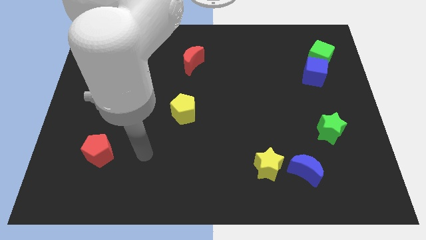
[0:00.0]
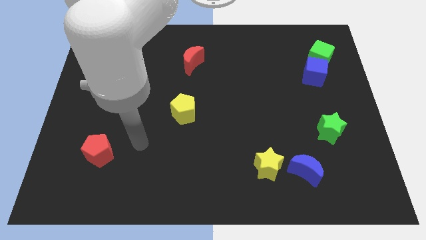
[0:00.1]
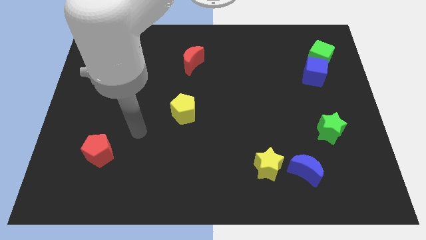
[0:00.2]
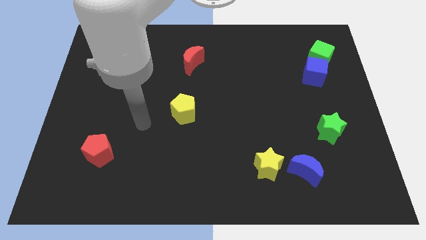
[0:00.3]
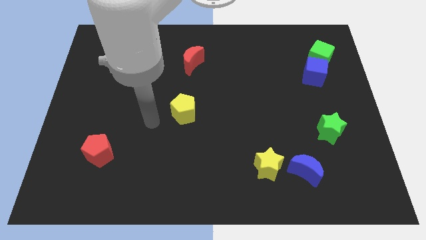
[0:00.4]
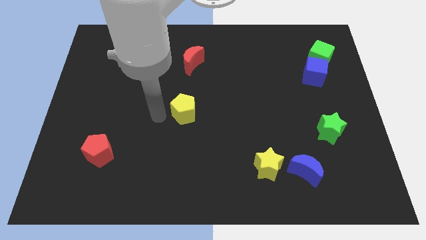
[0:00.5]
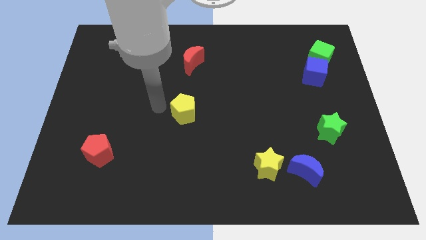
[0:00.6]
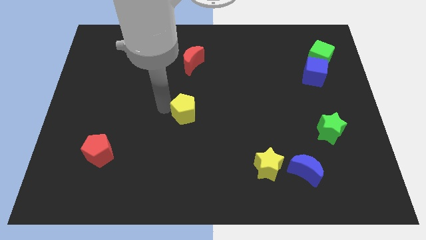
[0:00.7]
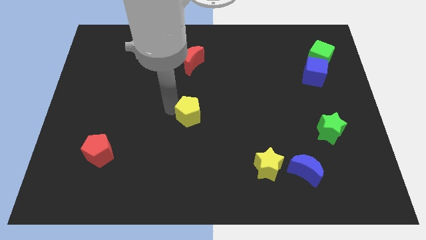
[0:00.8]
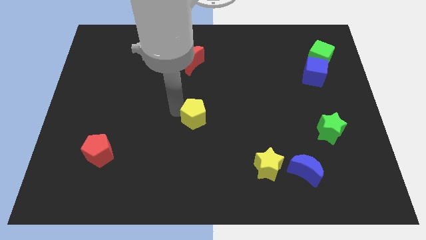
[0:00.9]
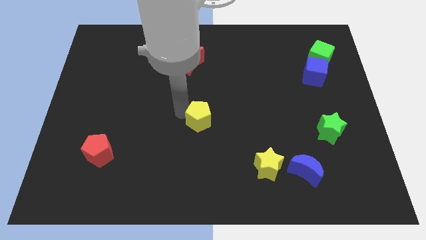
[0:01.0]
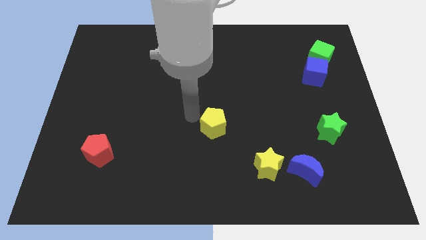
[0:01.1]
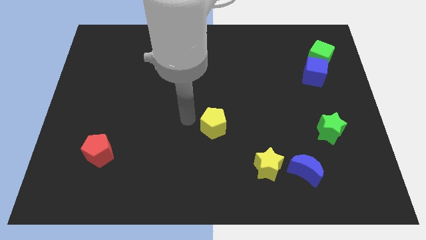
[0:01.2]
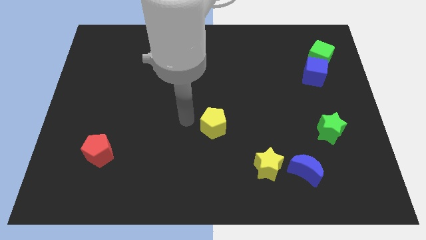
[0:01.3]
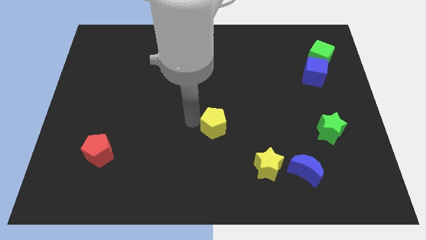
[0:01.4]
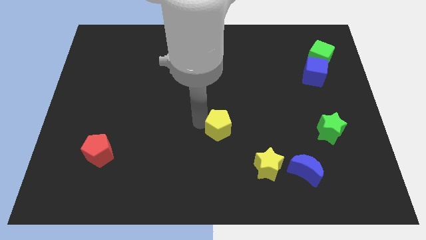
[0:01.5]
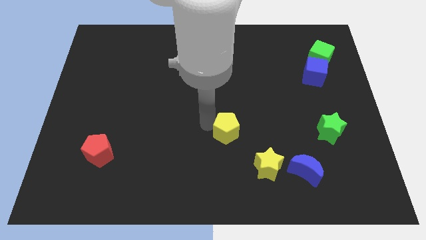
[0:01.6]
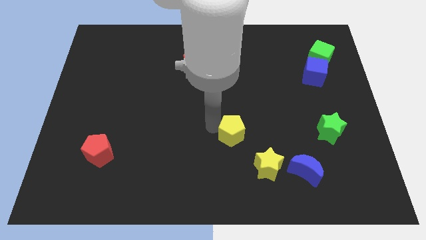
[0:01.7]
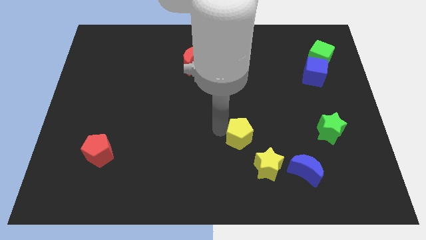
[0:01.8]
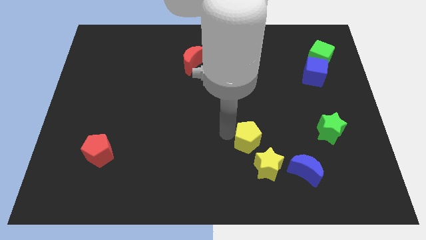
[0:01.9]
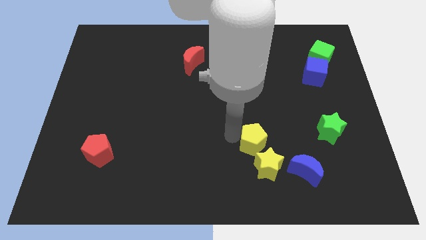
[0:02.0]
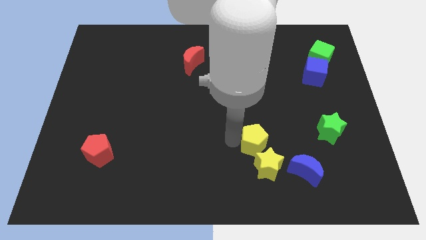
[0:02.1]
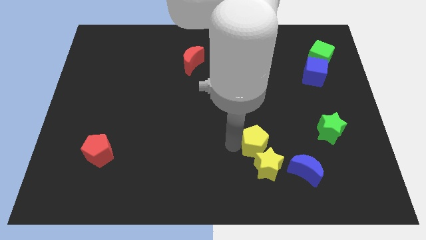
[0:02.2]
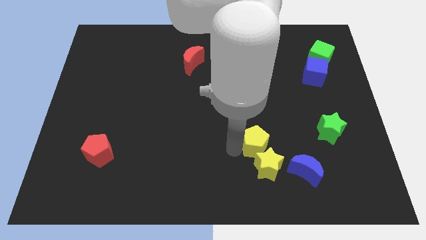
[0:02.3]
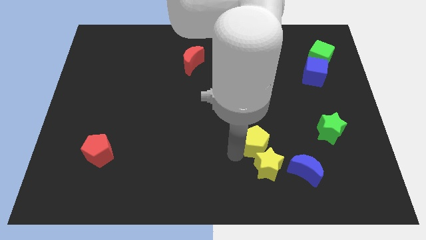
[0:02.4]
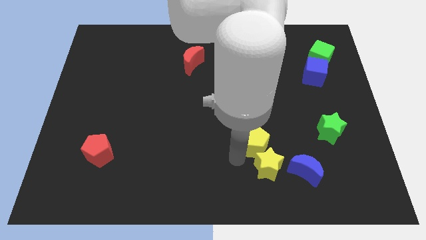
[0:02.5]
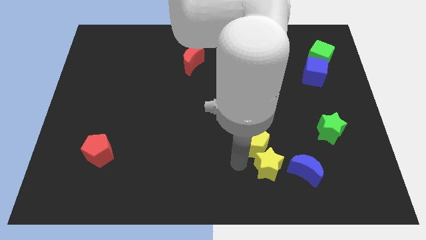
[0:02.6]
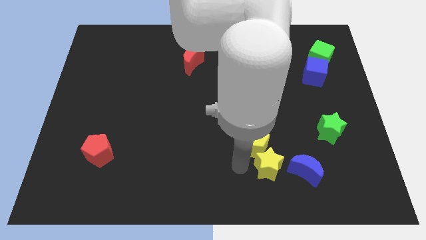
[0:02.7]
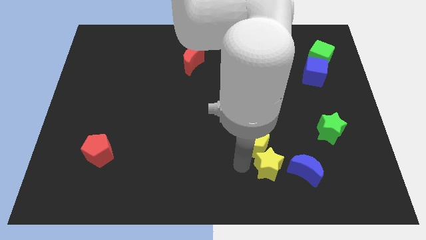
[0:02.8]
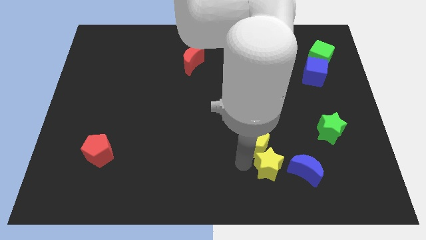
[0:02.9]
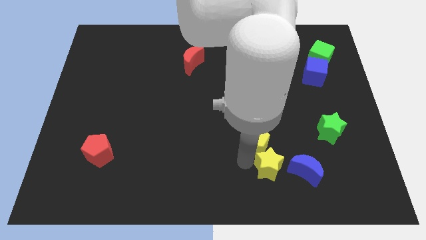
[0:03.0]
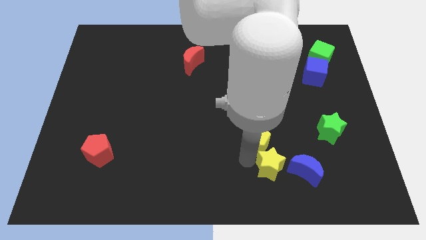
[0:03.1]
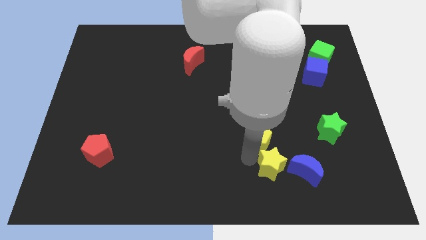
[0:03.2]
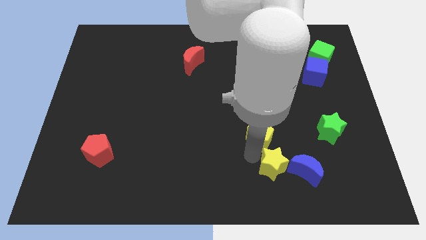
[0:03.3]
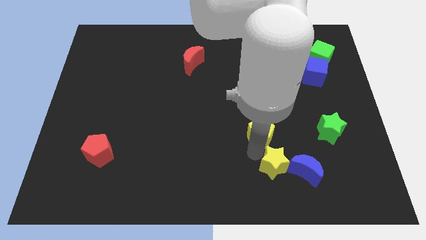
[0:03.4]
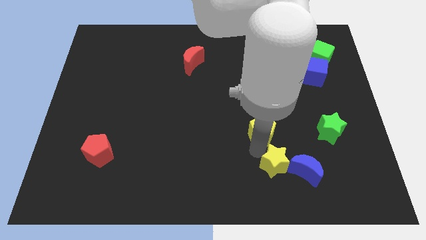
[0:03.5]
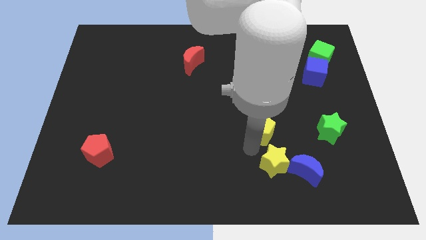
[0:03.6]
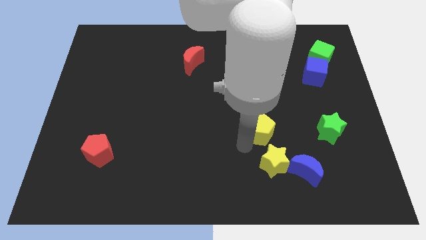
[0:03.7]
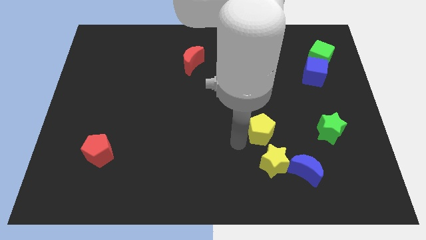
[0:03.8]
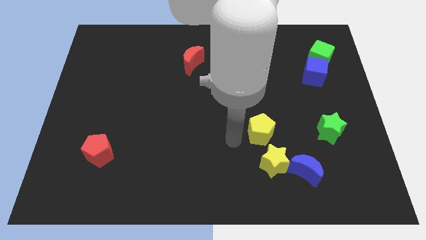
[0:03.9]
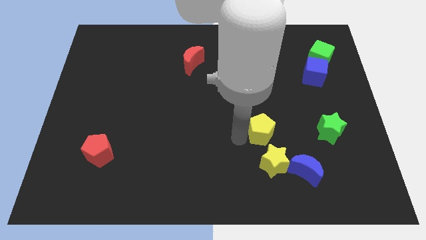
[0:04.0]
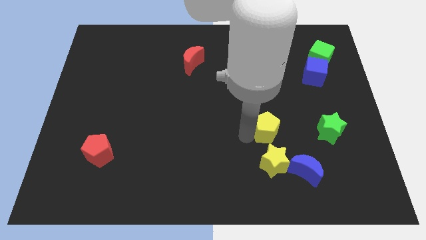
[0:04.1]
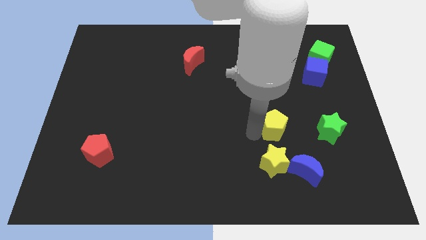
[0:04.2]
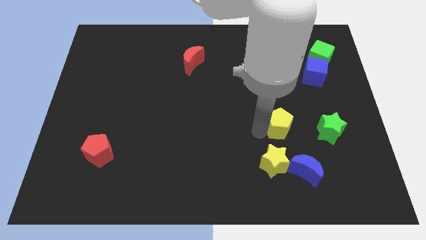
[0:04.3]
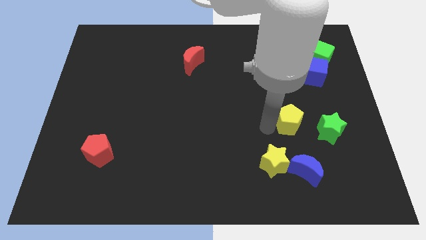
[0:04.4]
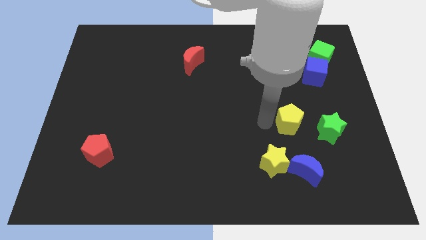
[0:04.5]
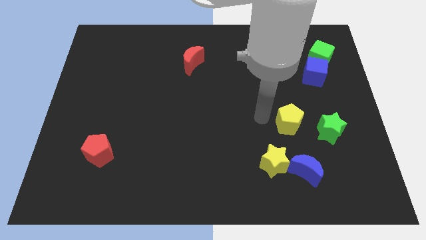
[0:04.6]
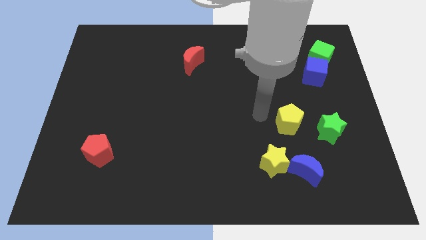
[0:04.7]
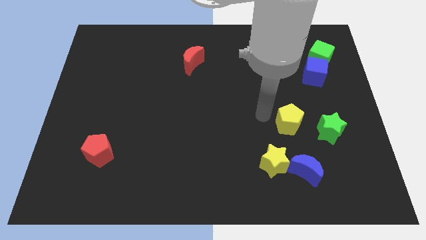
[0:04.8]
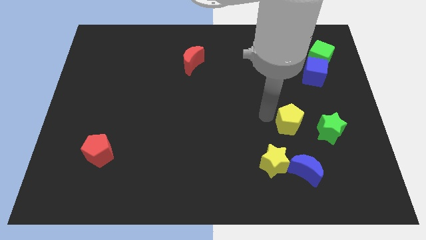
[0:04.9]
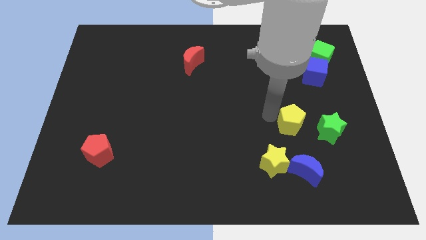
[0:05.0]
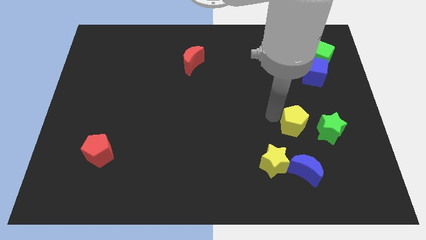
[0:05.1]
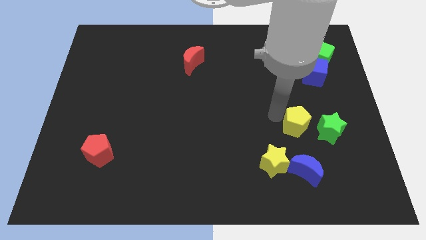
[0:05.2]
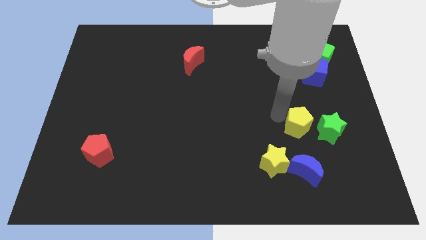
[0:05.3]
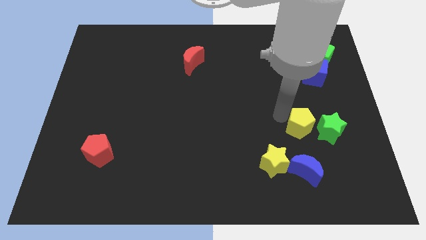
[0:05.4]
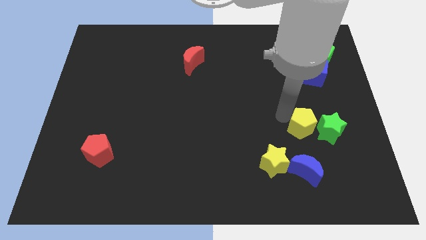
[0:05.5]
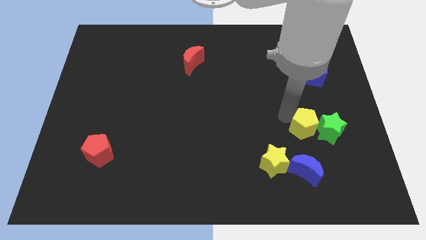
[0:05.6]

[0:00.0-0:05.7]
slide the yellow pentagon close to the green star

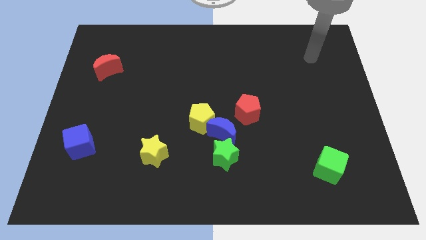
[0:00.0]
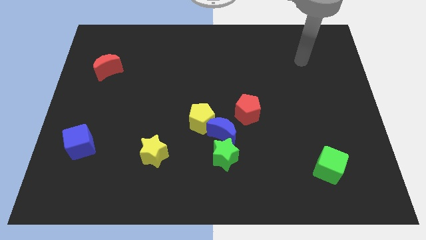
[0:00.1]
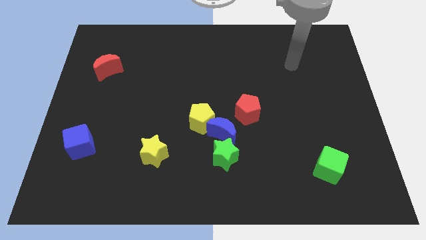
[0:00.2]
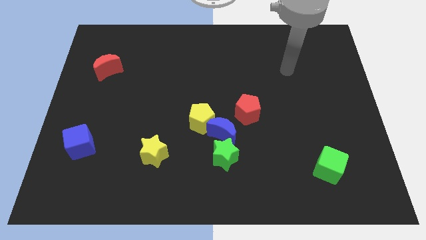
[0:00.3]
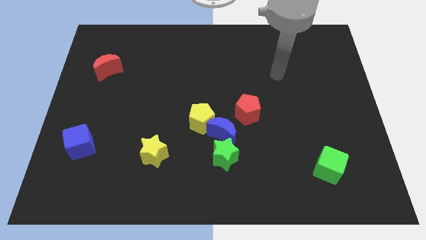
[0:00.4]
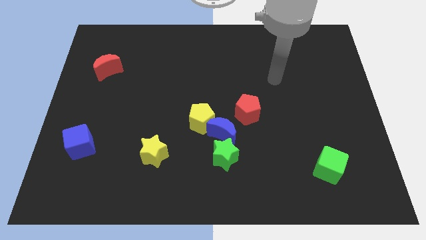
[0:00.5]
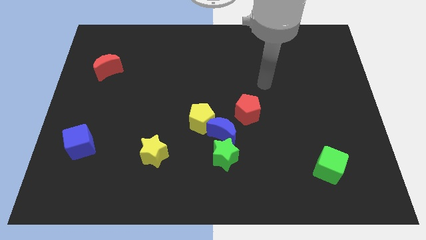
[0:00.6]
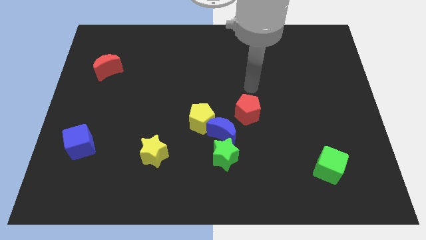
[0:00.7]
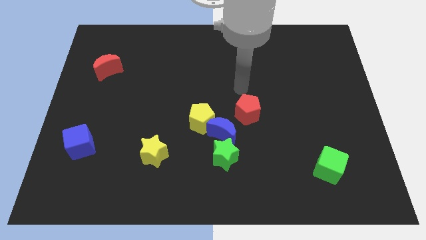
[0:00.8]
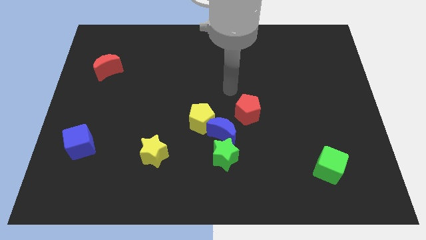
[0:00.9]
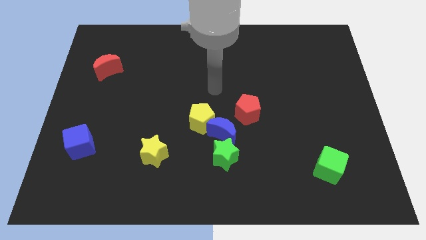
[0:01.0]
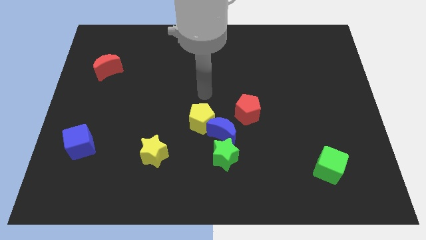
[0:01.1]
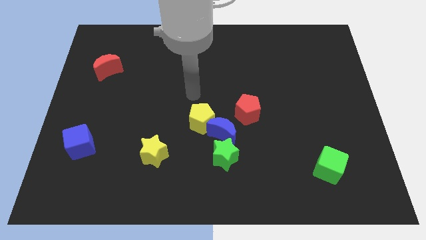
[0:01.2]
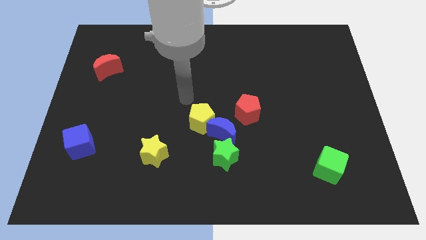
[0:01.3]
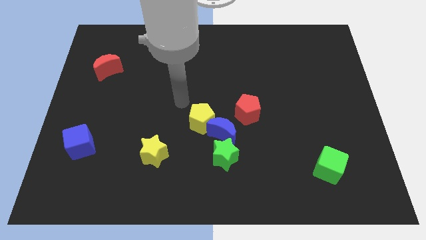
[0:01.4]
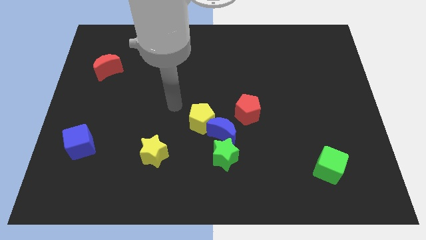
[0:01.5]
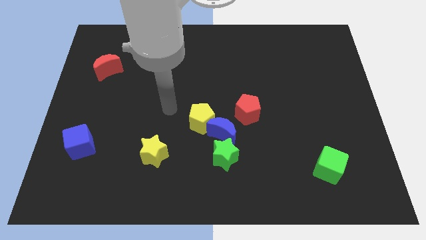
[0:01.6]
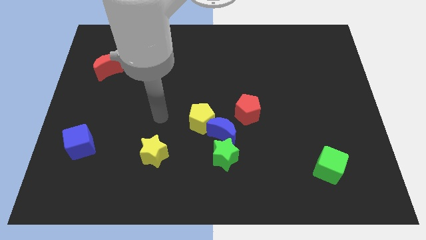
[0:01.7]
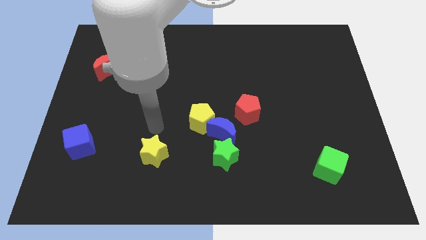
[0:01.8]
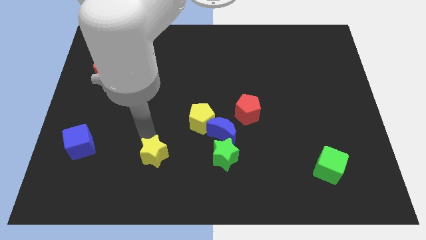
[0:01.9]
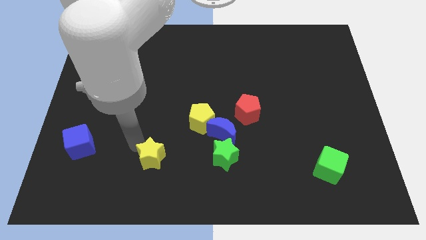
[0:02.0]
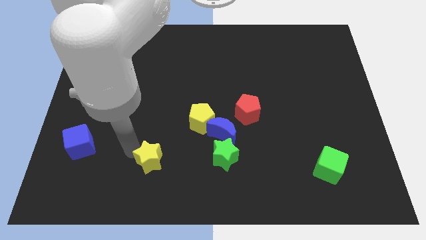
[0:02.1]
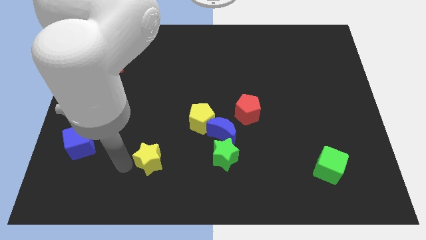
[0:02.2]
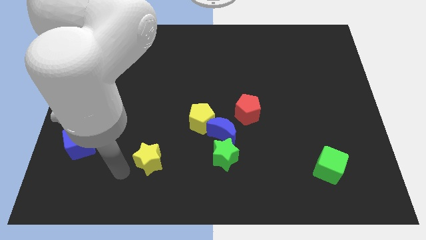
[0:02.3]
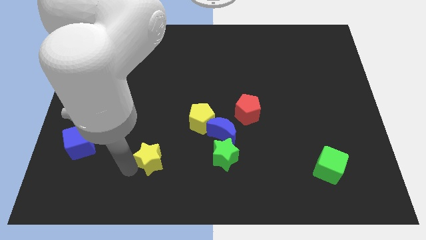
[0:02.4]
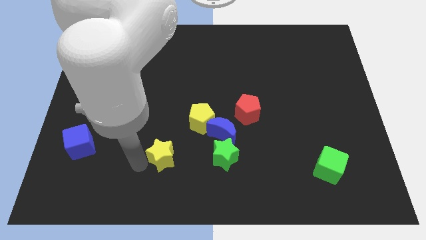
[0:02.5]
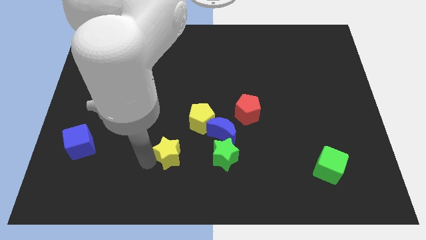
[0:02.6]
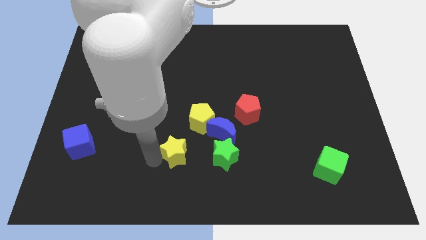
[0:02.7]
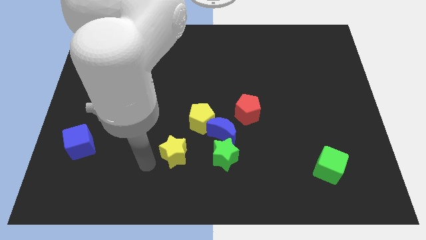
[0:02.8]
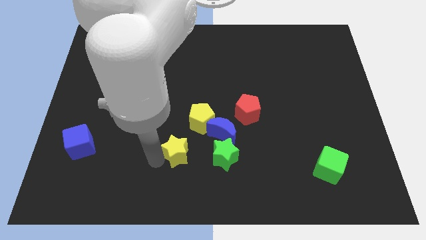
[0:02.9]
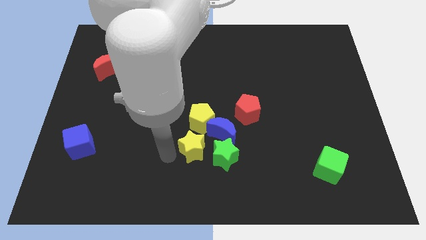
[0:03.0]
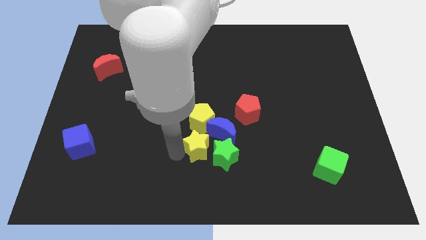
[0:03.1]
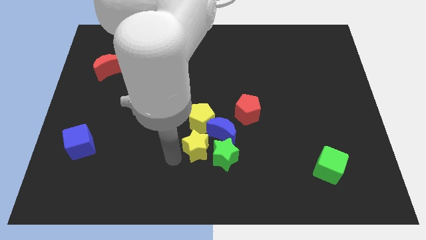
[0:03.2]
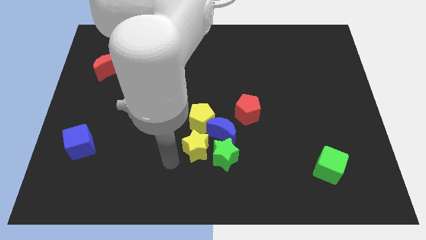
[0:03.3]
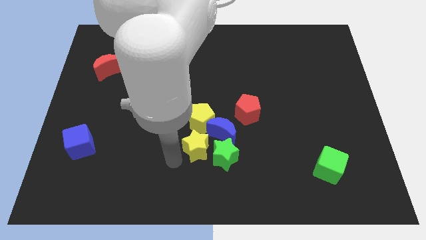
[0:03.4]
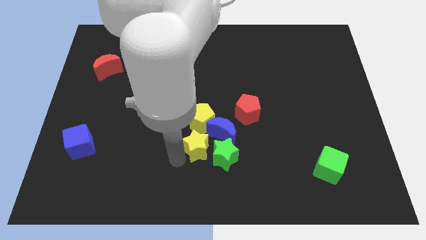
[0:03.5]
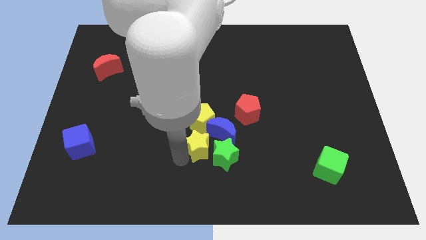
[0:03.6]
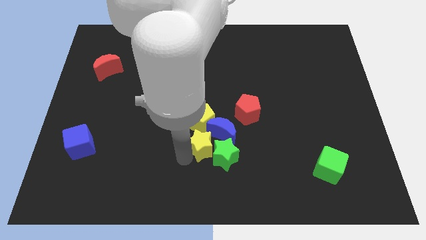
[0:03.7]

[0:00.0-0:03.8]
put the yellow star next to the blue moon
